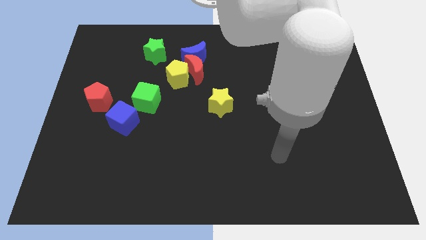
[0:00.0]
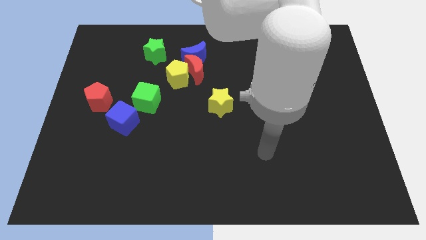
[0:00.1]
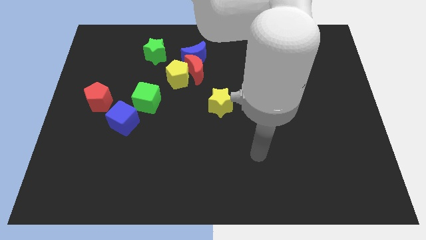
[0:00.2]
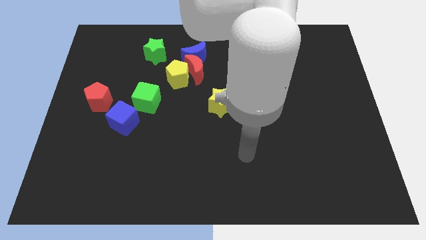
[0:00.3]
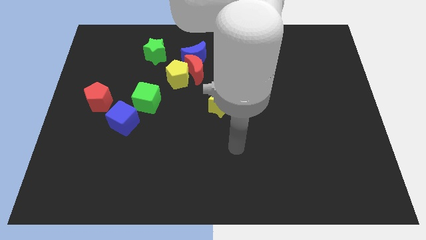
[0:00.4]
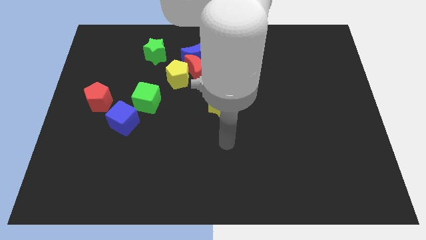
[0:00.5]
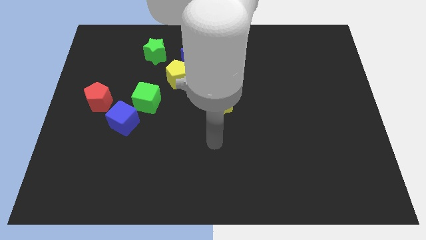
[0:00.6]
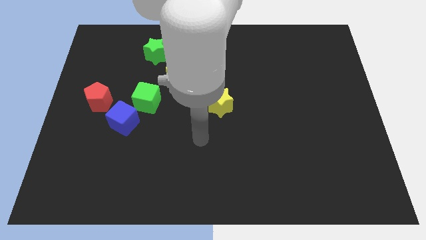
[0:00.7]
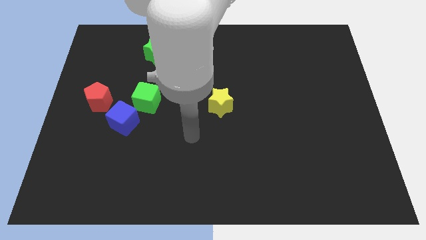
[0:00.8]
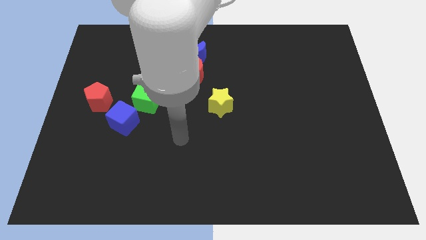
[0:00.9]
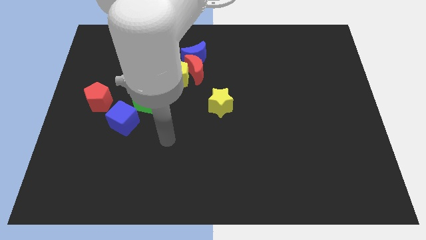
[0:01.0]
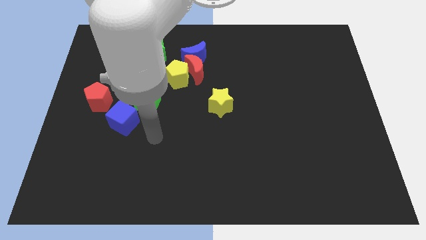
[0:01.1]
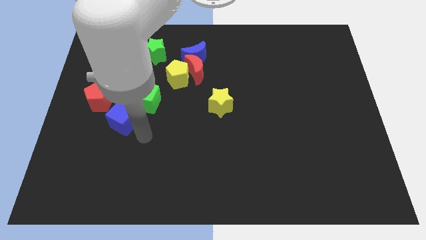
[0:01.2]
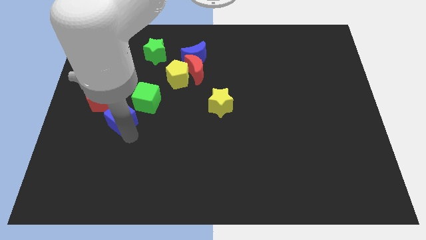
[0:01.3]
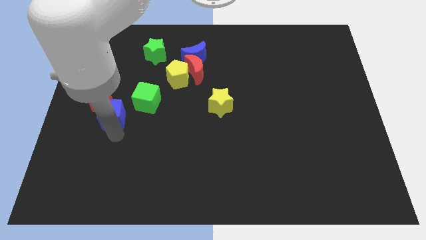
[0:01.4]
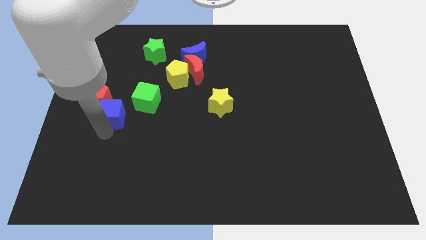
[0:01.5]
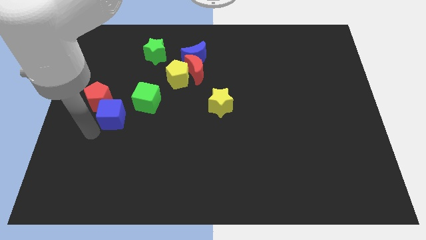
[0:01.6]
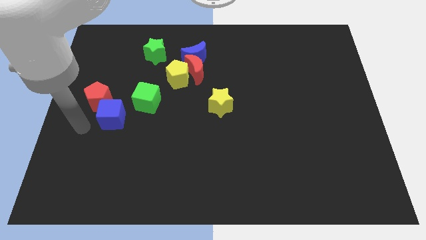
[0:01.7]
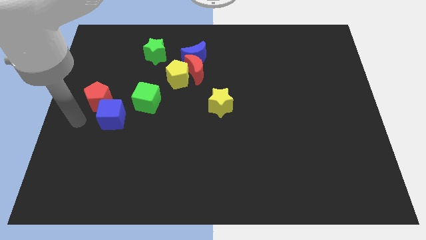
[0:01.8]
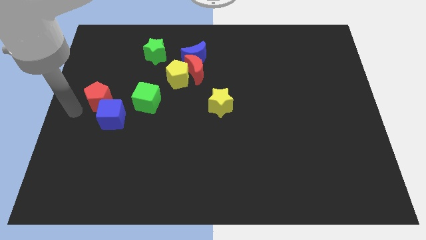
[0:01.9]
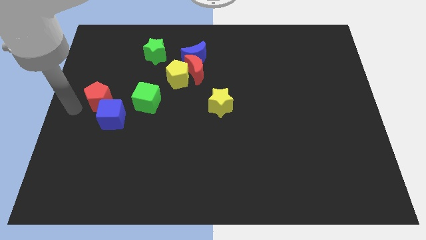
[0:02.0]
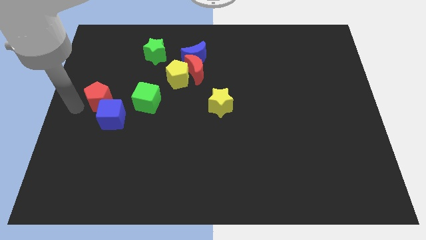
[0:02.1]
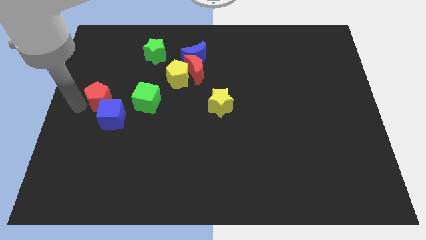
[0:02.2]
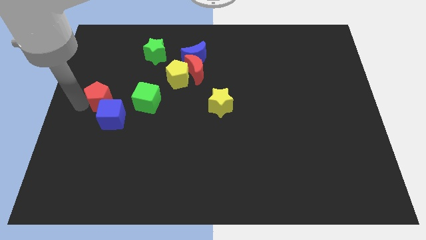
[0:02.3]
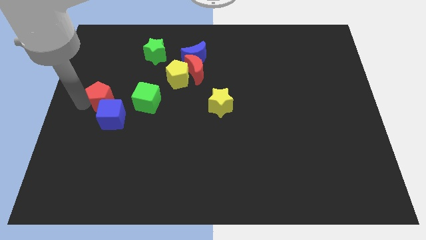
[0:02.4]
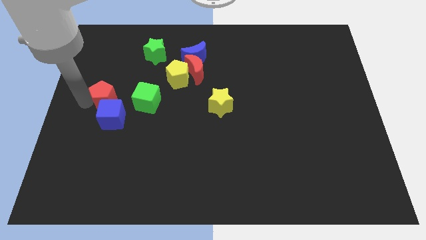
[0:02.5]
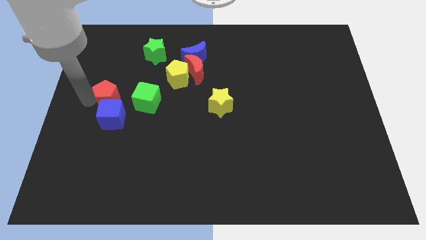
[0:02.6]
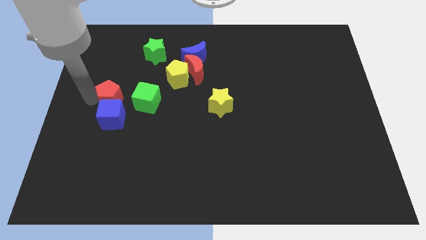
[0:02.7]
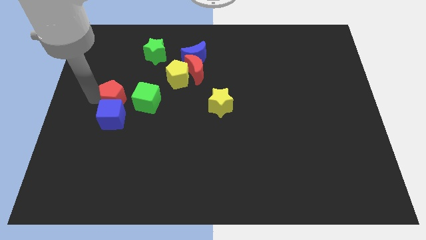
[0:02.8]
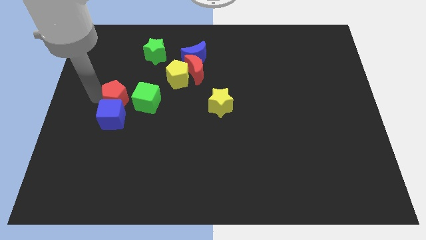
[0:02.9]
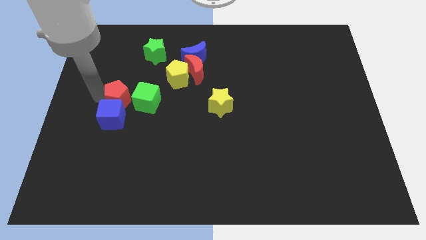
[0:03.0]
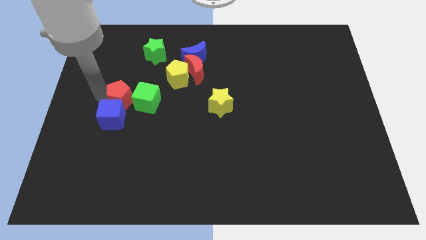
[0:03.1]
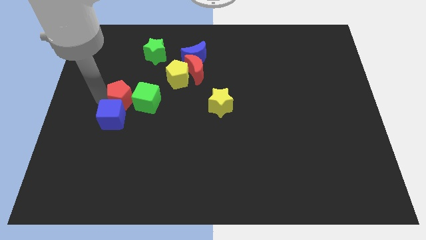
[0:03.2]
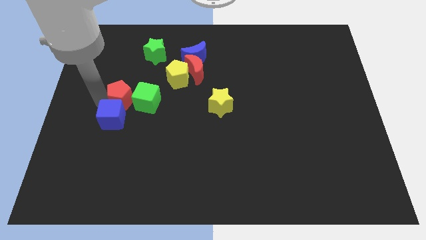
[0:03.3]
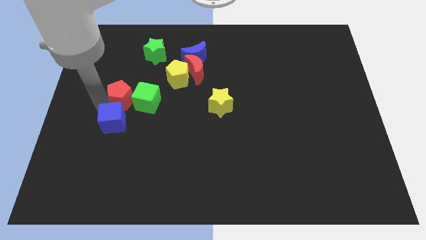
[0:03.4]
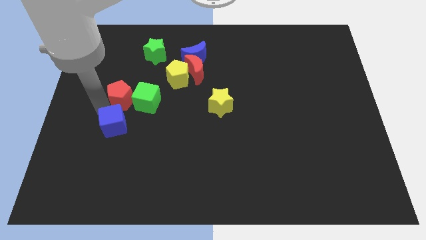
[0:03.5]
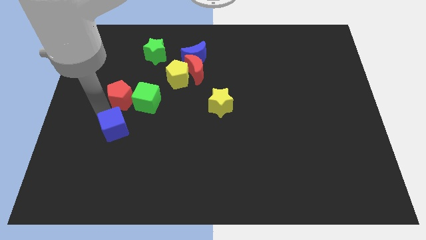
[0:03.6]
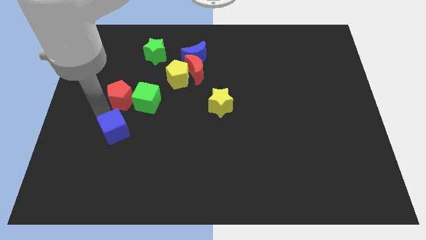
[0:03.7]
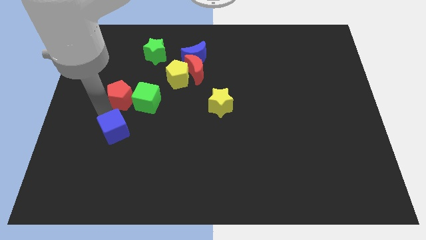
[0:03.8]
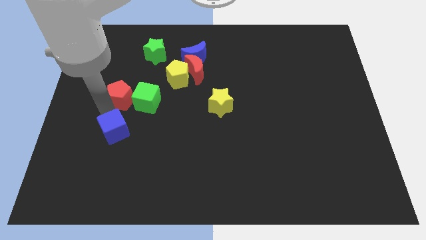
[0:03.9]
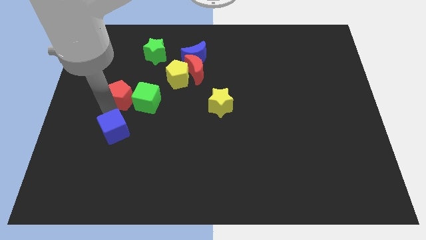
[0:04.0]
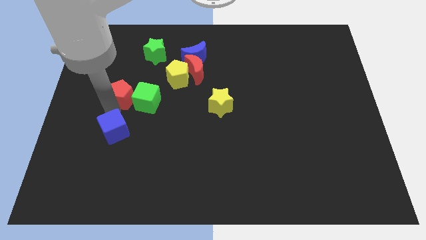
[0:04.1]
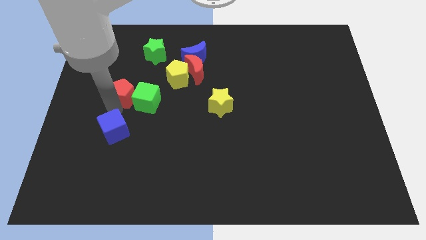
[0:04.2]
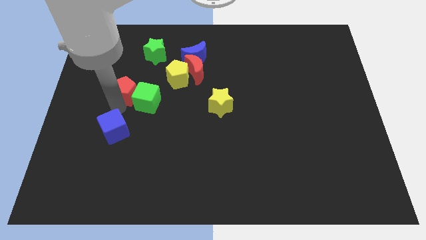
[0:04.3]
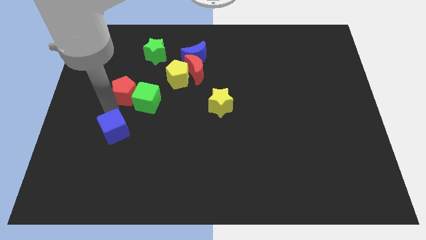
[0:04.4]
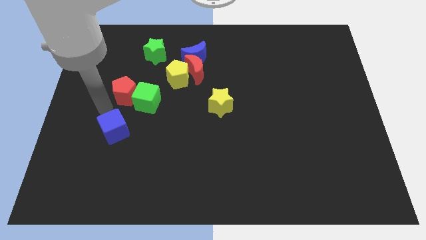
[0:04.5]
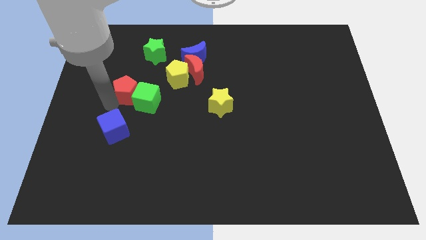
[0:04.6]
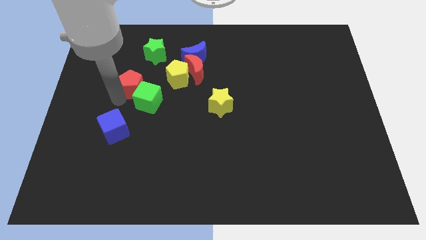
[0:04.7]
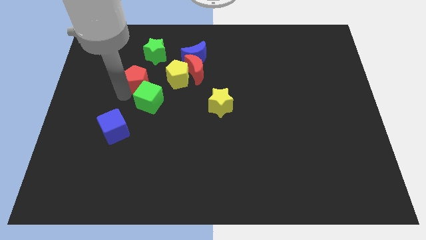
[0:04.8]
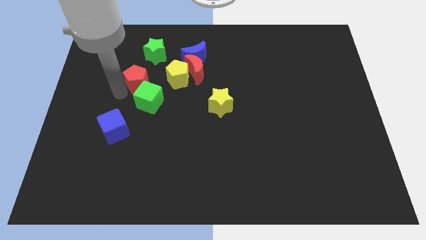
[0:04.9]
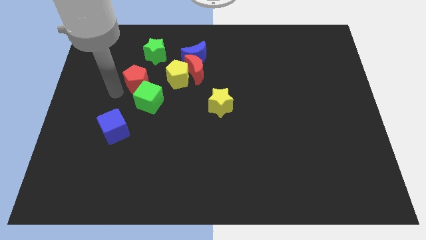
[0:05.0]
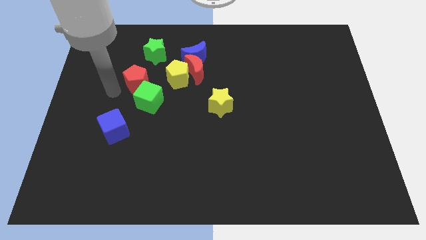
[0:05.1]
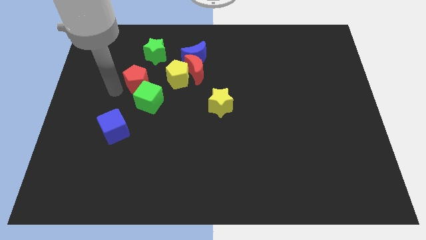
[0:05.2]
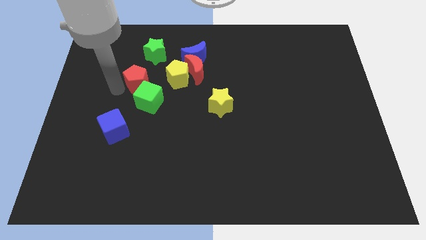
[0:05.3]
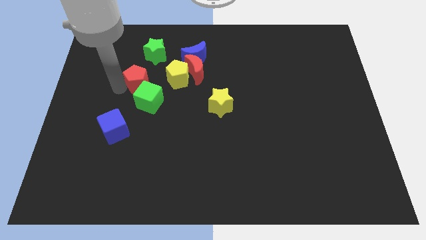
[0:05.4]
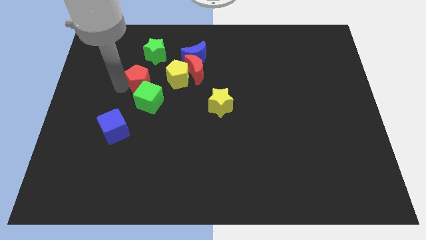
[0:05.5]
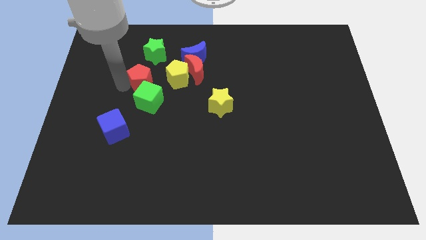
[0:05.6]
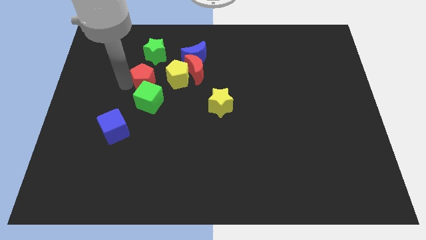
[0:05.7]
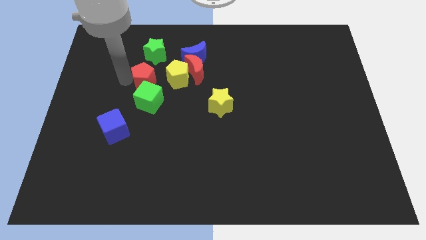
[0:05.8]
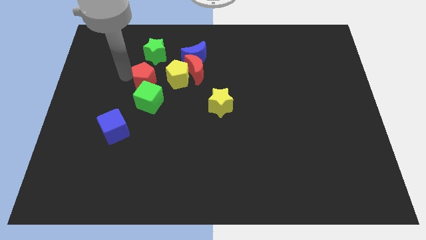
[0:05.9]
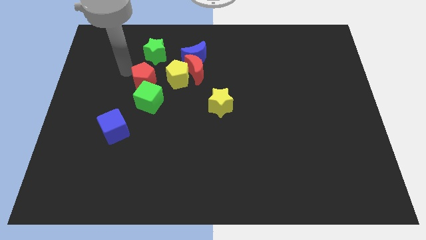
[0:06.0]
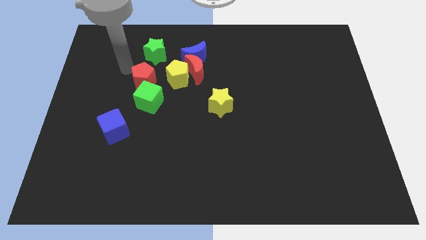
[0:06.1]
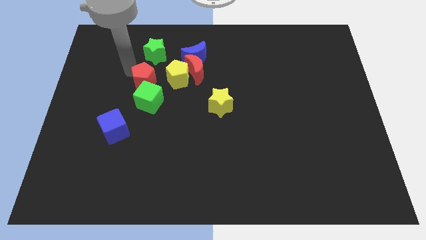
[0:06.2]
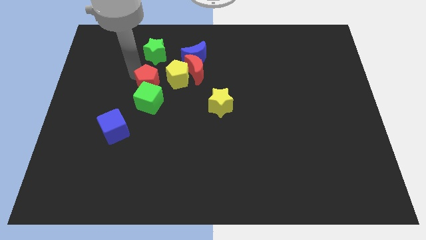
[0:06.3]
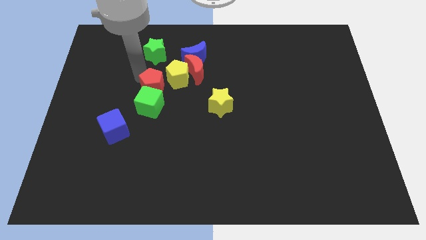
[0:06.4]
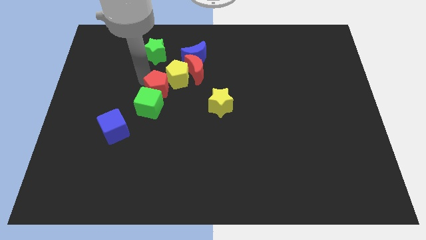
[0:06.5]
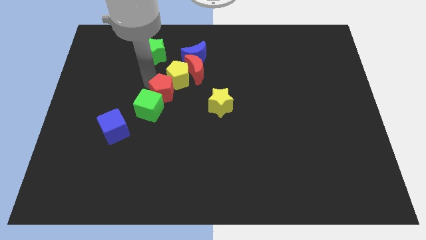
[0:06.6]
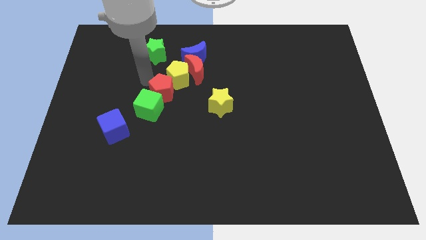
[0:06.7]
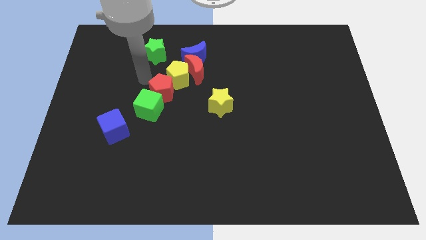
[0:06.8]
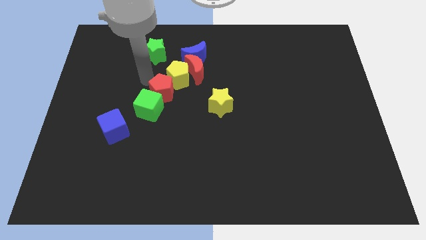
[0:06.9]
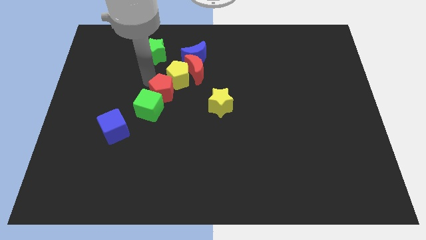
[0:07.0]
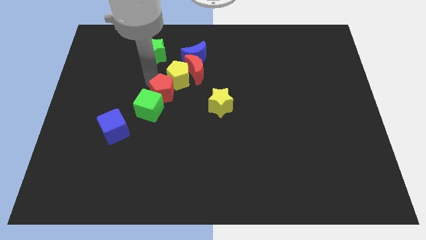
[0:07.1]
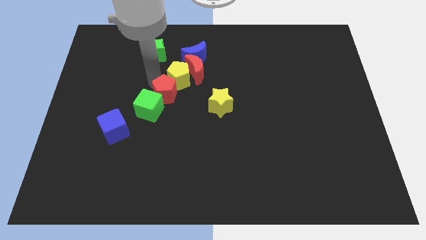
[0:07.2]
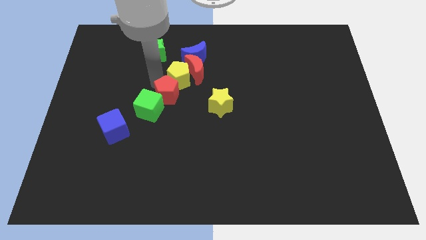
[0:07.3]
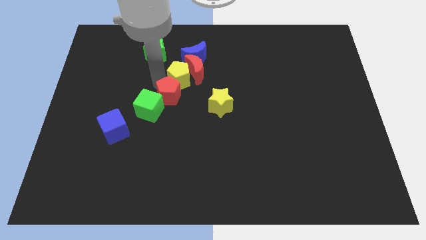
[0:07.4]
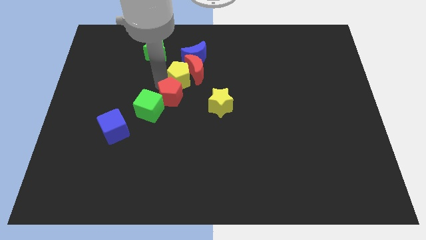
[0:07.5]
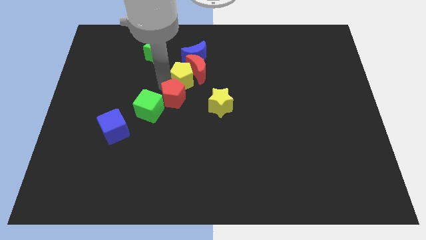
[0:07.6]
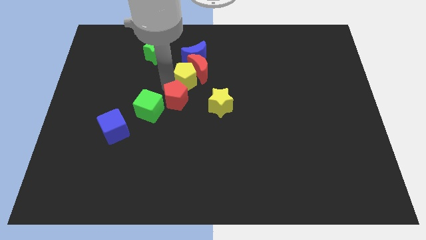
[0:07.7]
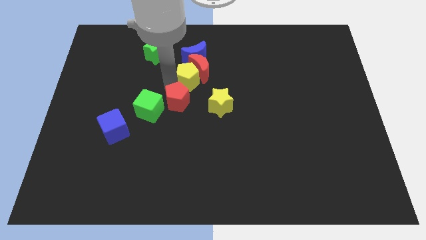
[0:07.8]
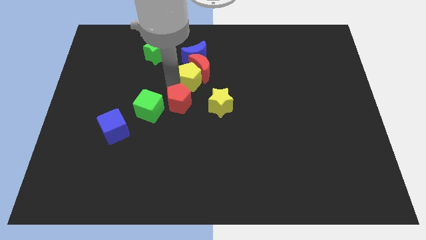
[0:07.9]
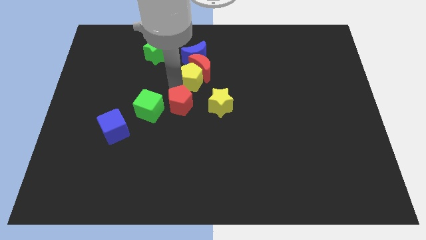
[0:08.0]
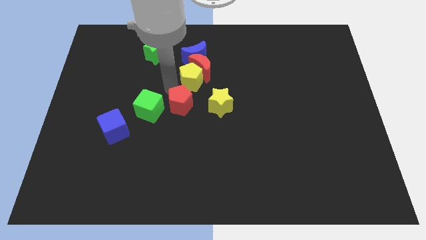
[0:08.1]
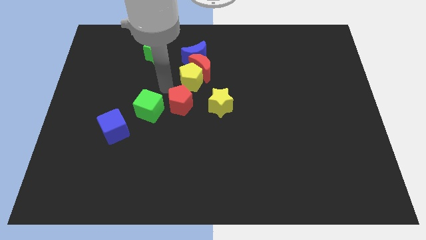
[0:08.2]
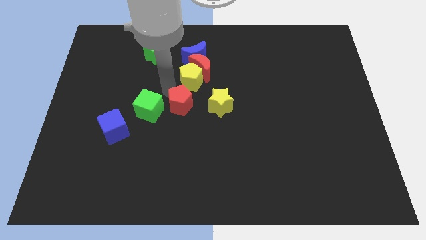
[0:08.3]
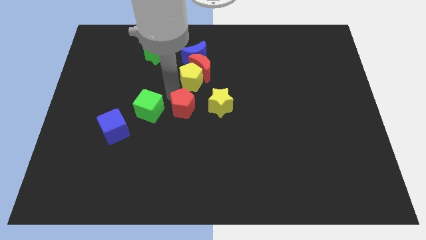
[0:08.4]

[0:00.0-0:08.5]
move the red pentagon right
